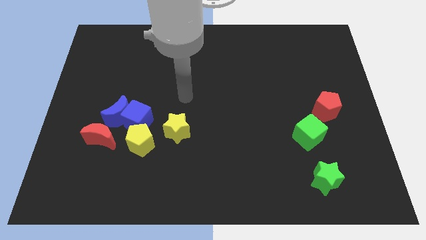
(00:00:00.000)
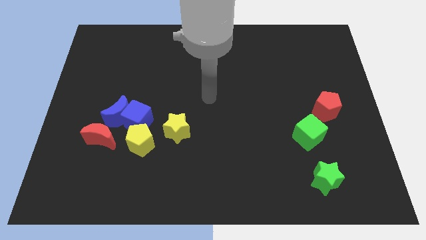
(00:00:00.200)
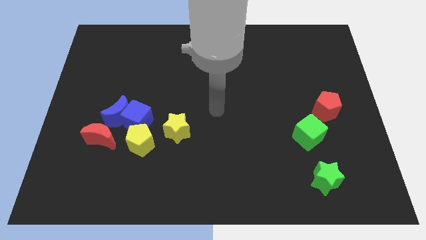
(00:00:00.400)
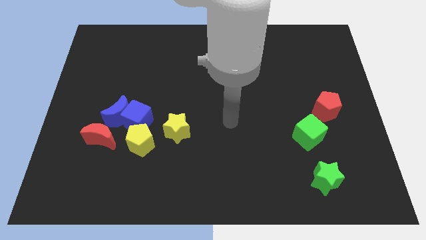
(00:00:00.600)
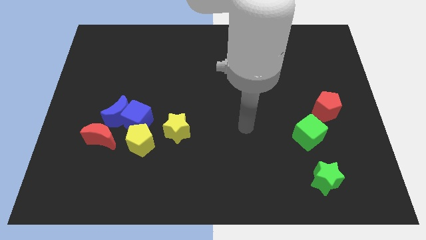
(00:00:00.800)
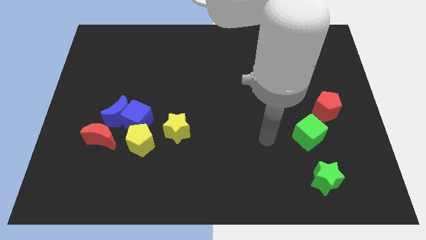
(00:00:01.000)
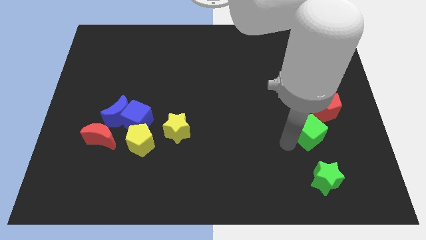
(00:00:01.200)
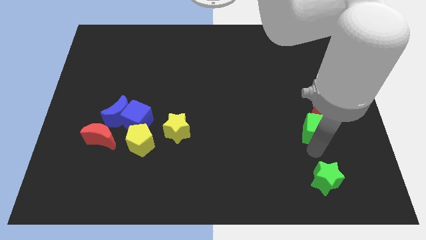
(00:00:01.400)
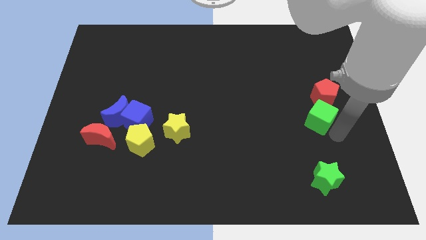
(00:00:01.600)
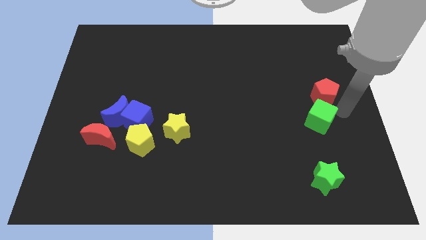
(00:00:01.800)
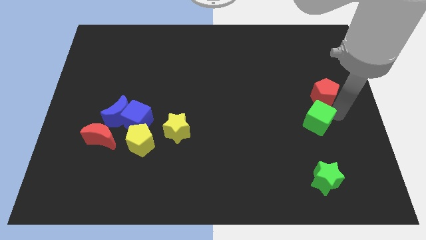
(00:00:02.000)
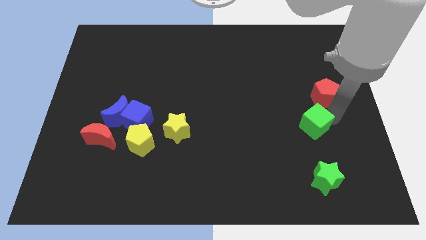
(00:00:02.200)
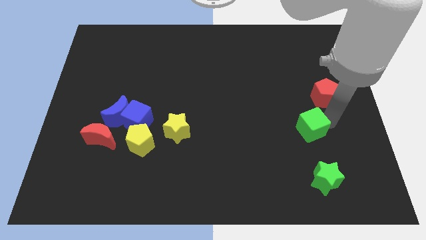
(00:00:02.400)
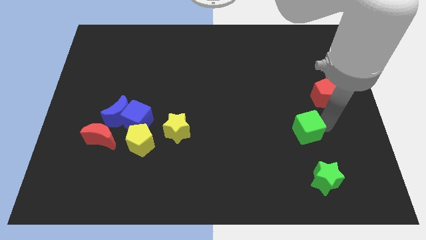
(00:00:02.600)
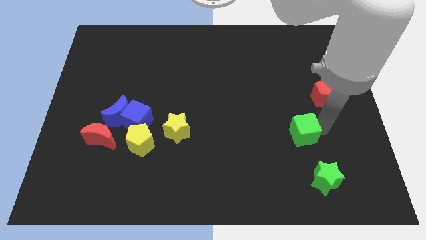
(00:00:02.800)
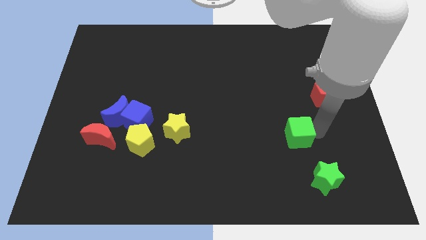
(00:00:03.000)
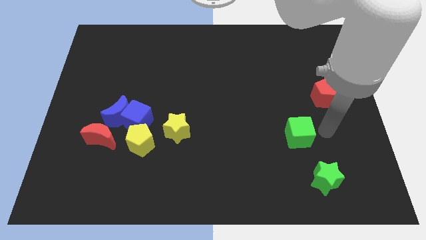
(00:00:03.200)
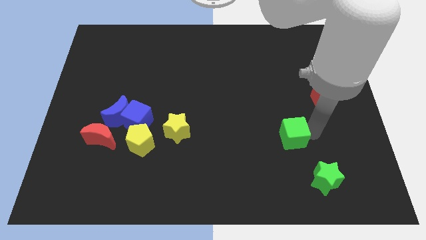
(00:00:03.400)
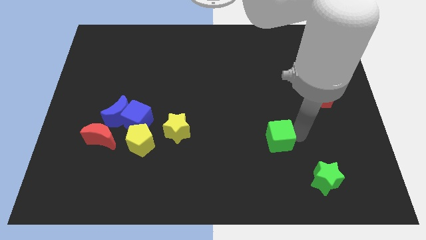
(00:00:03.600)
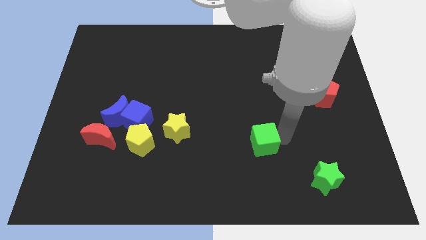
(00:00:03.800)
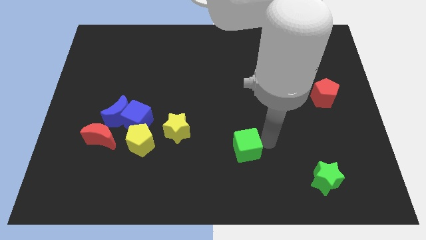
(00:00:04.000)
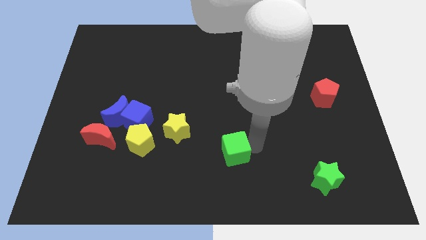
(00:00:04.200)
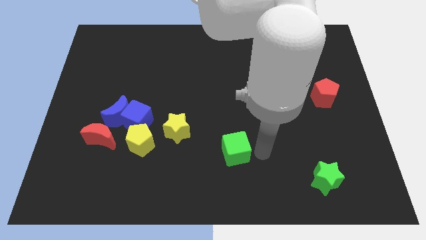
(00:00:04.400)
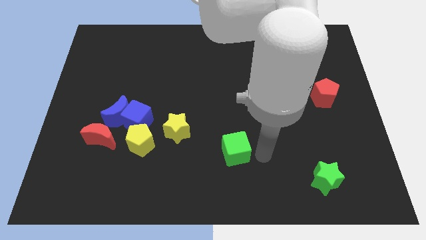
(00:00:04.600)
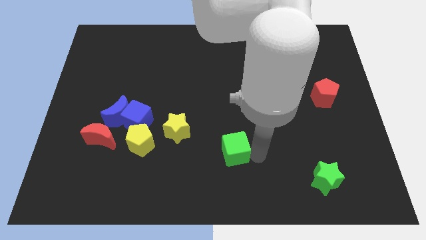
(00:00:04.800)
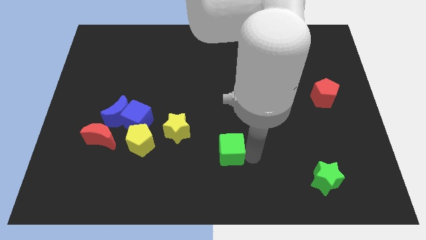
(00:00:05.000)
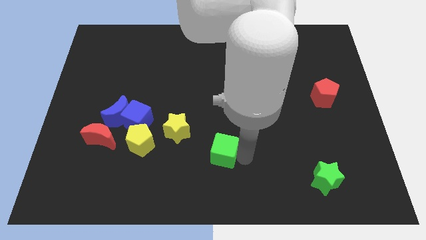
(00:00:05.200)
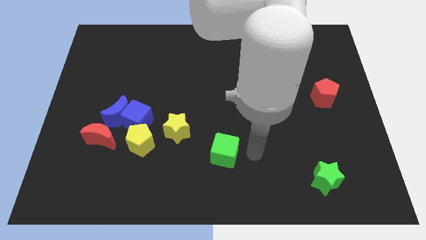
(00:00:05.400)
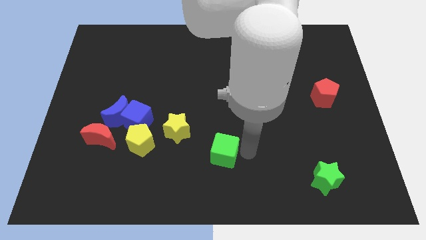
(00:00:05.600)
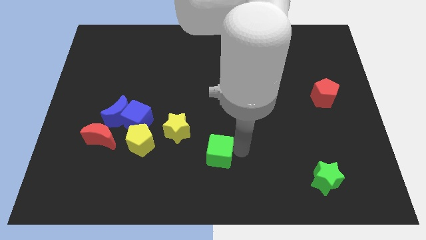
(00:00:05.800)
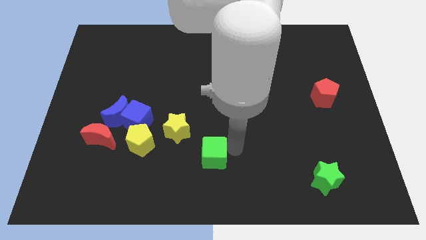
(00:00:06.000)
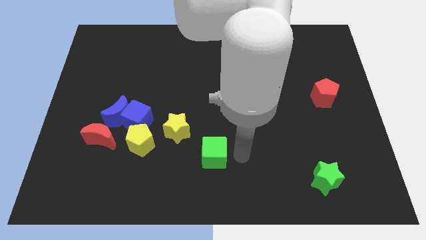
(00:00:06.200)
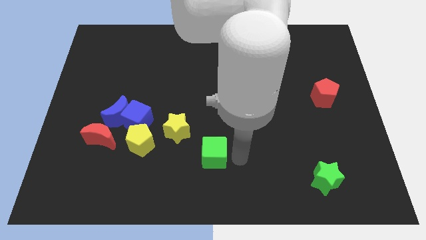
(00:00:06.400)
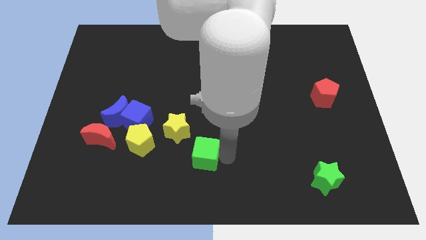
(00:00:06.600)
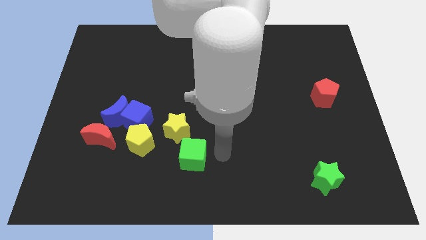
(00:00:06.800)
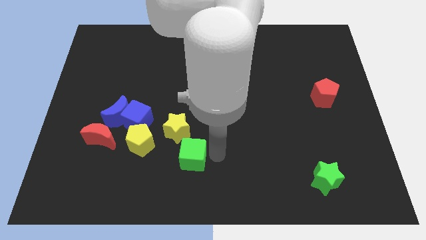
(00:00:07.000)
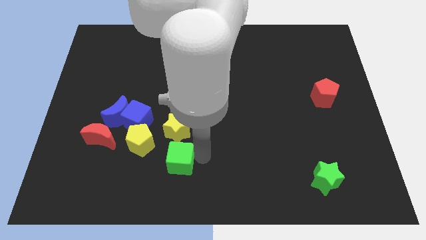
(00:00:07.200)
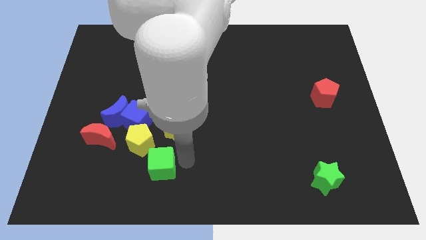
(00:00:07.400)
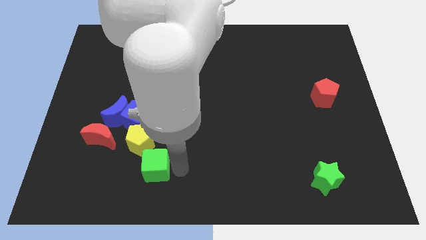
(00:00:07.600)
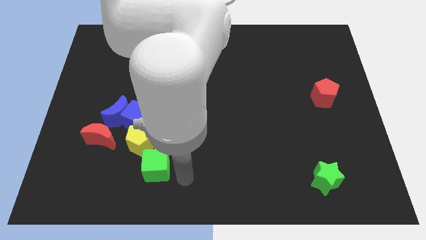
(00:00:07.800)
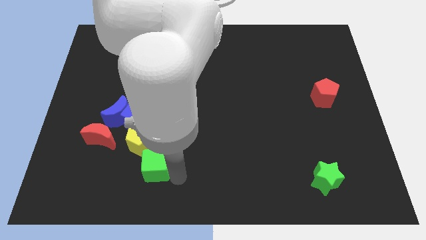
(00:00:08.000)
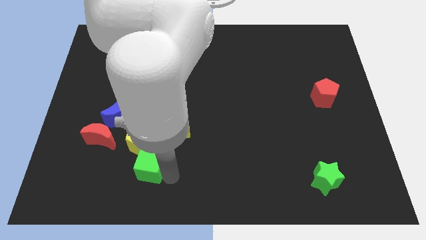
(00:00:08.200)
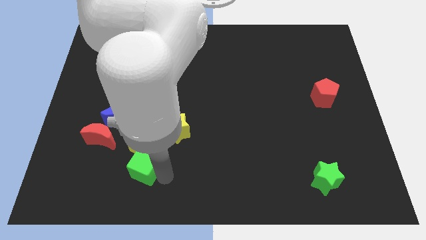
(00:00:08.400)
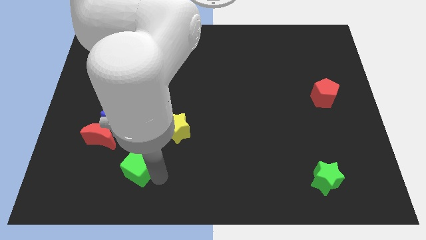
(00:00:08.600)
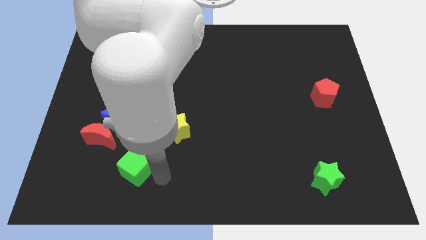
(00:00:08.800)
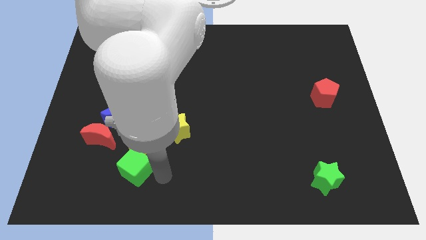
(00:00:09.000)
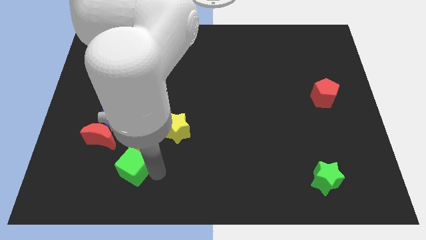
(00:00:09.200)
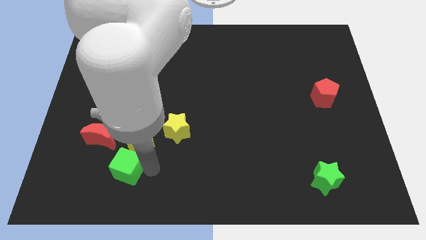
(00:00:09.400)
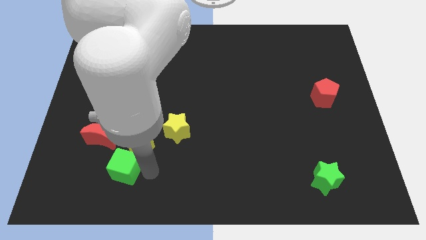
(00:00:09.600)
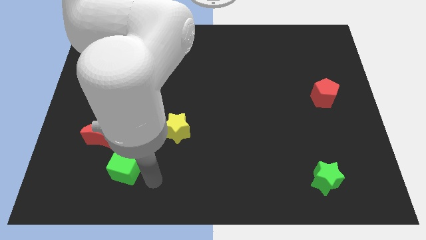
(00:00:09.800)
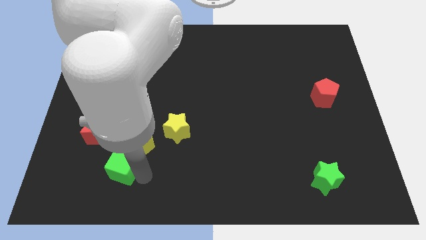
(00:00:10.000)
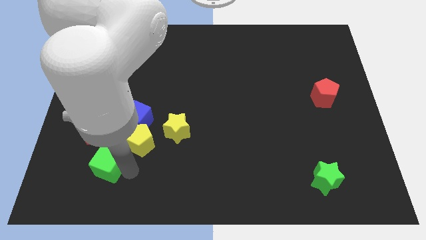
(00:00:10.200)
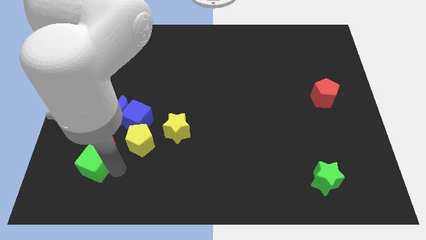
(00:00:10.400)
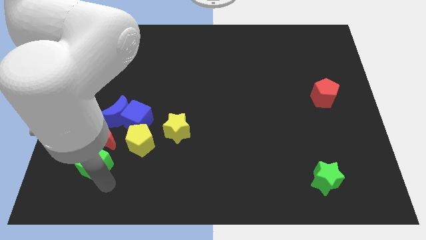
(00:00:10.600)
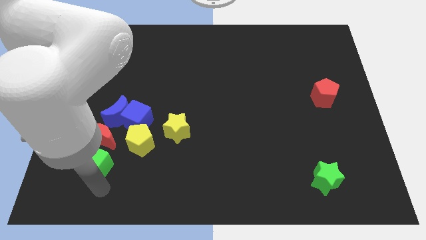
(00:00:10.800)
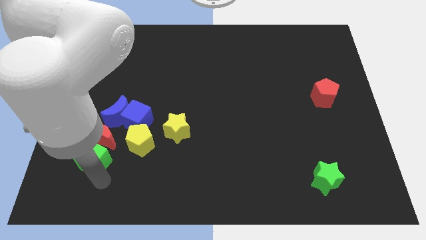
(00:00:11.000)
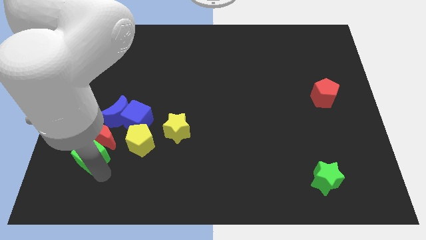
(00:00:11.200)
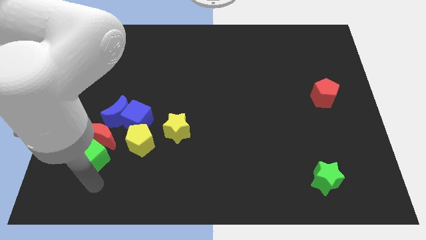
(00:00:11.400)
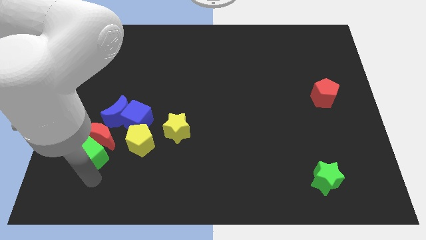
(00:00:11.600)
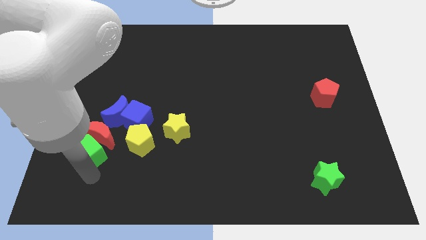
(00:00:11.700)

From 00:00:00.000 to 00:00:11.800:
push the green cube to the bottom left side of the blue moon

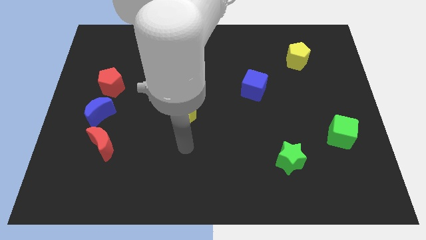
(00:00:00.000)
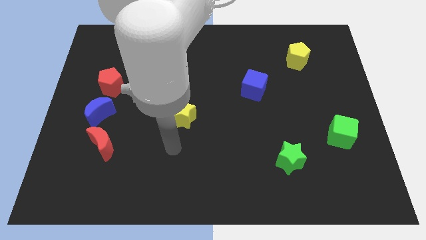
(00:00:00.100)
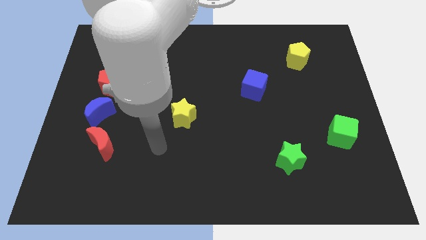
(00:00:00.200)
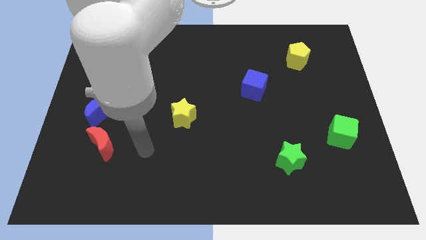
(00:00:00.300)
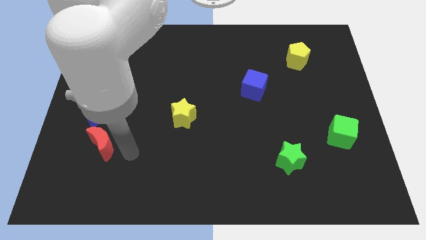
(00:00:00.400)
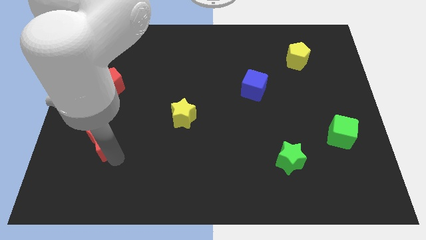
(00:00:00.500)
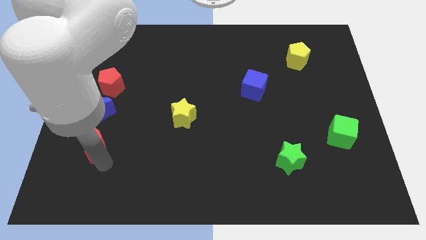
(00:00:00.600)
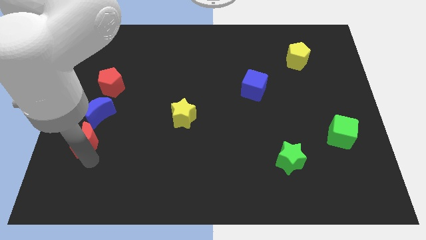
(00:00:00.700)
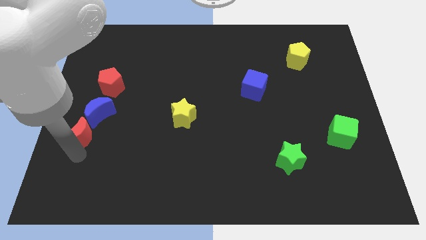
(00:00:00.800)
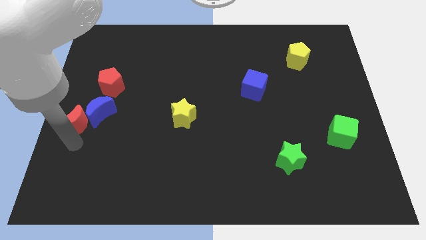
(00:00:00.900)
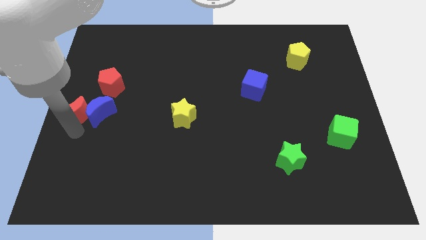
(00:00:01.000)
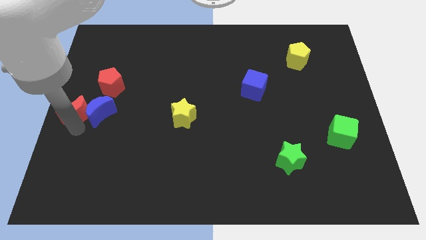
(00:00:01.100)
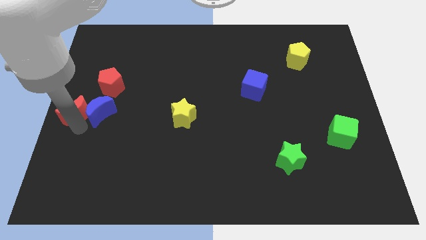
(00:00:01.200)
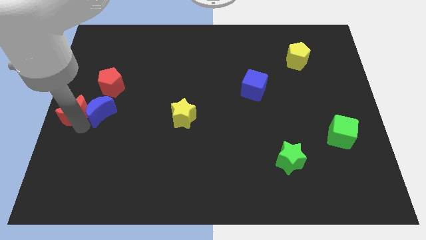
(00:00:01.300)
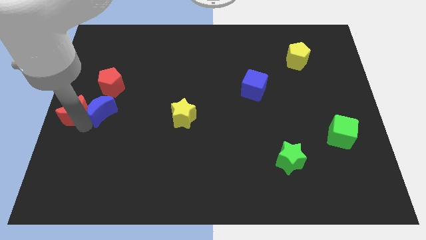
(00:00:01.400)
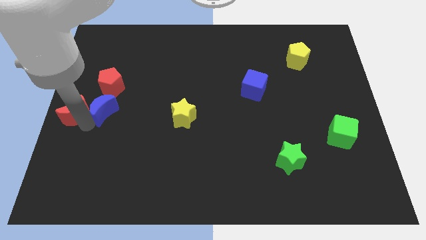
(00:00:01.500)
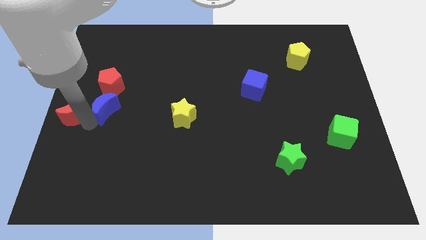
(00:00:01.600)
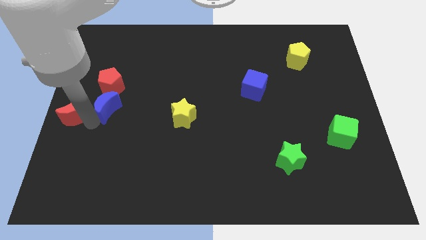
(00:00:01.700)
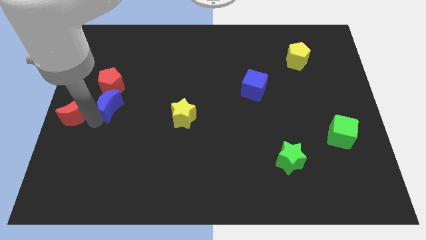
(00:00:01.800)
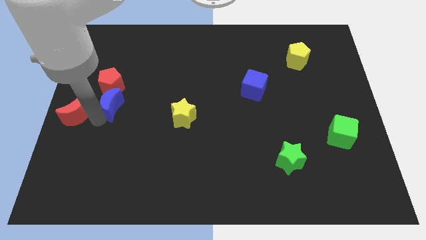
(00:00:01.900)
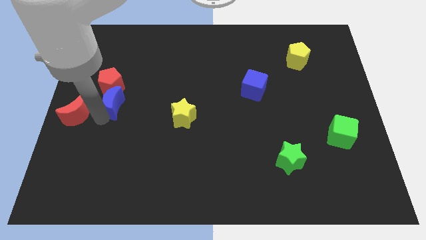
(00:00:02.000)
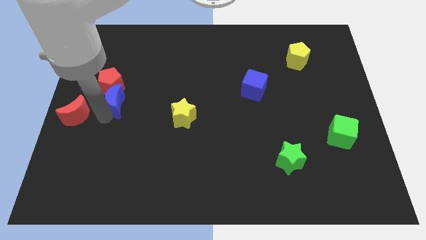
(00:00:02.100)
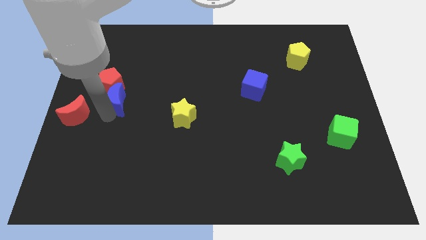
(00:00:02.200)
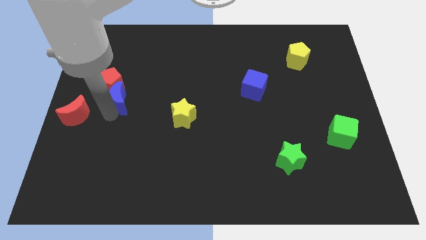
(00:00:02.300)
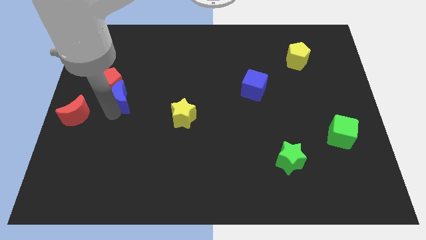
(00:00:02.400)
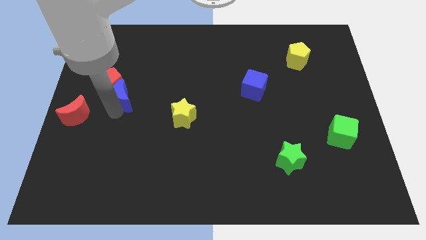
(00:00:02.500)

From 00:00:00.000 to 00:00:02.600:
put the blue moon right of the red pentagon
